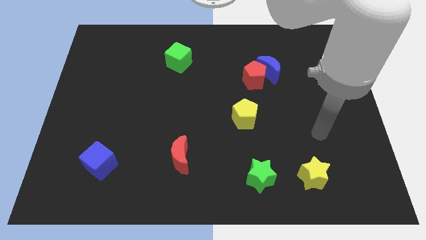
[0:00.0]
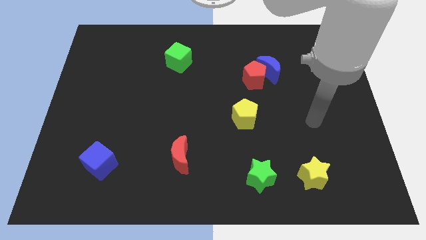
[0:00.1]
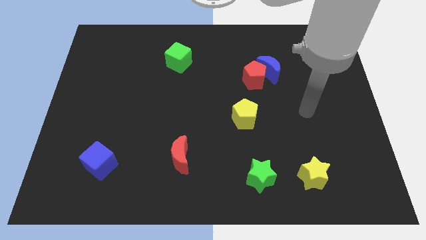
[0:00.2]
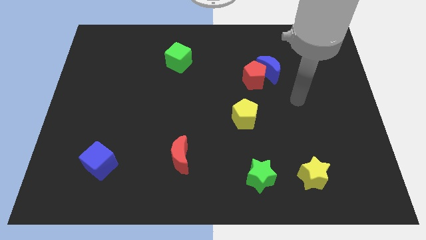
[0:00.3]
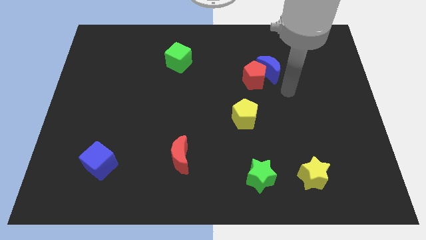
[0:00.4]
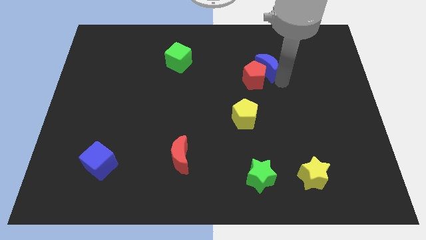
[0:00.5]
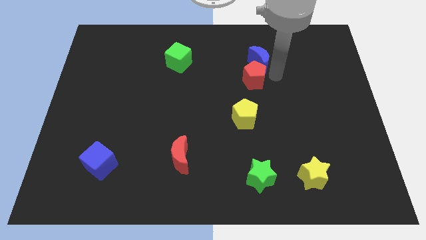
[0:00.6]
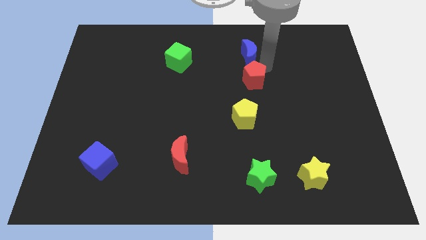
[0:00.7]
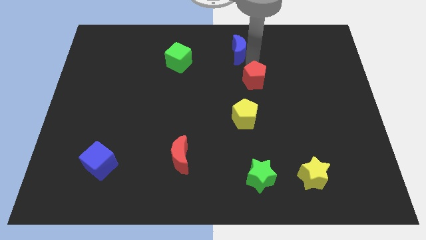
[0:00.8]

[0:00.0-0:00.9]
move the red pentagon away from the blue moon

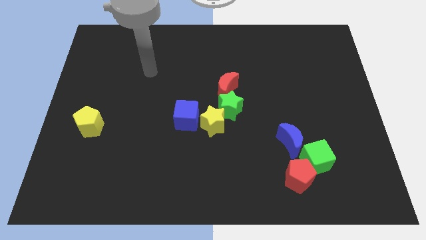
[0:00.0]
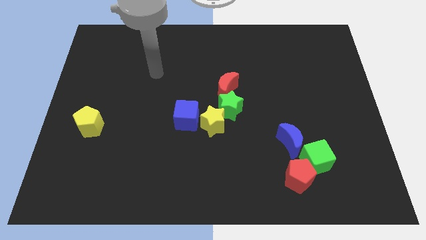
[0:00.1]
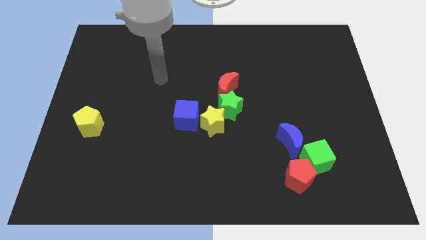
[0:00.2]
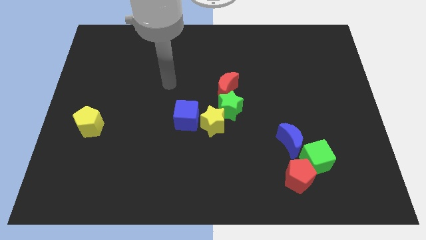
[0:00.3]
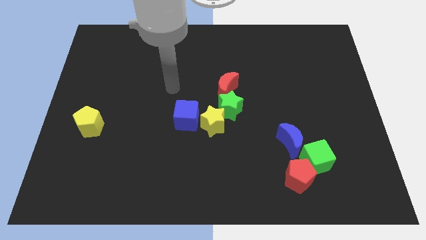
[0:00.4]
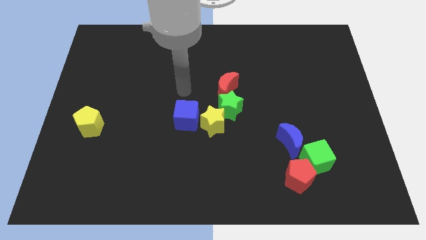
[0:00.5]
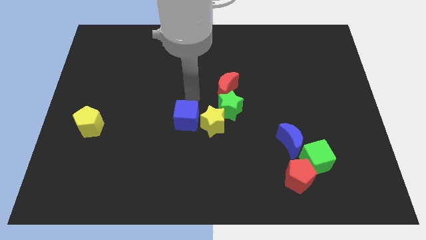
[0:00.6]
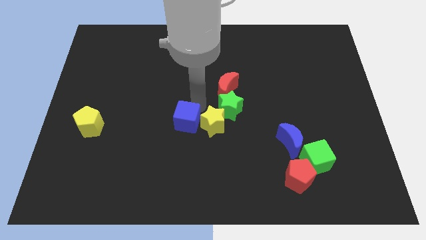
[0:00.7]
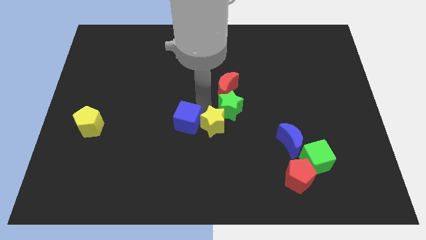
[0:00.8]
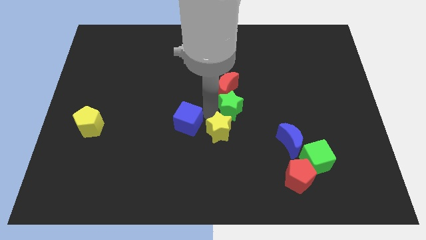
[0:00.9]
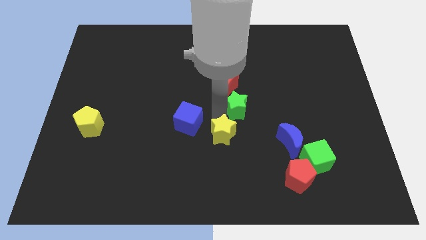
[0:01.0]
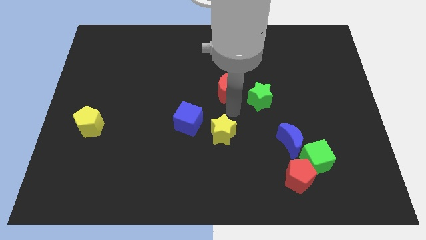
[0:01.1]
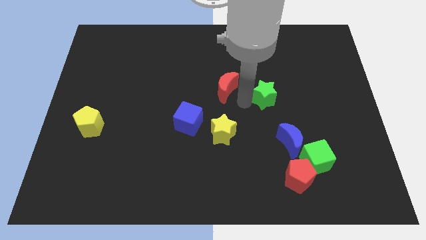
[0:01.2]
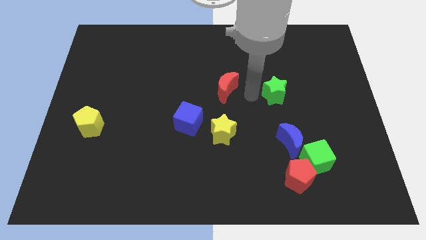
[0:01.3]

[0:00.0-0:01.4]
pull the red moon apart from the green star

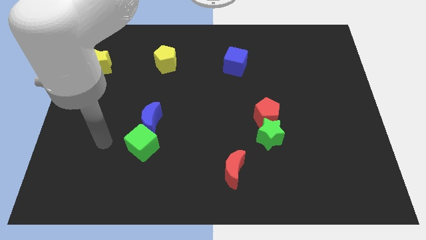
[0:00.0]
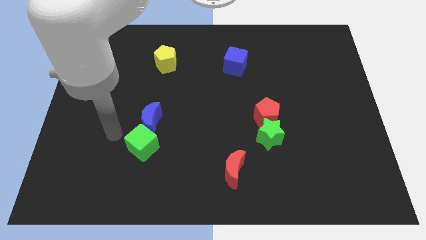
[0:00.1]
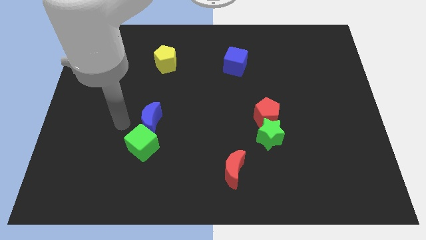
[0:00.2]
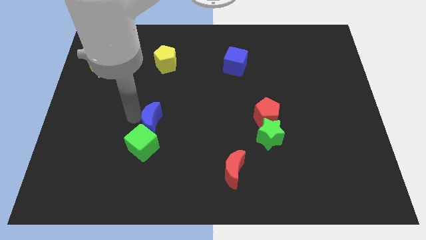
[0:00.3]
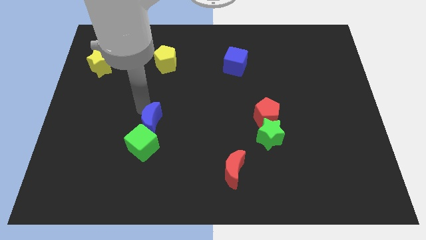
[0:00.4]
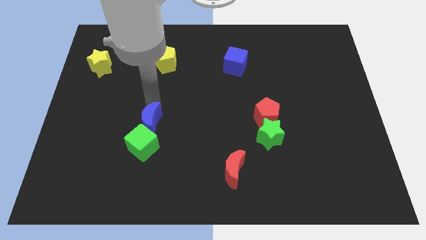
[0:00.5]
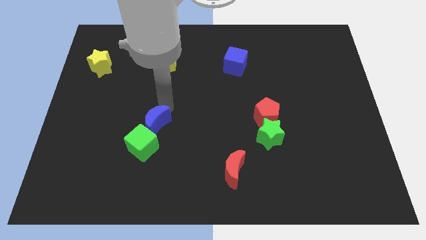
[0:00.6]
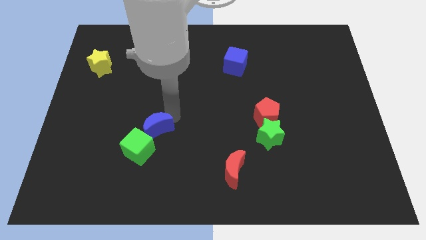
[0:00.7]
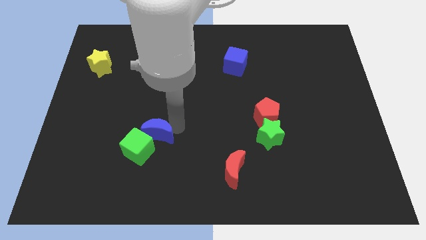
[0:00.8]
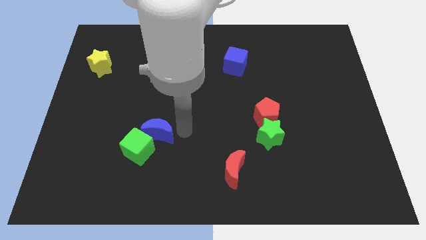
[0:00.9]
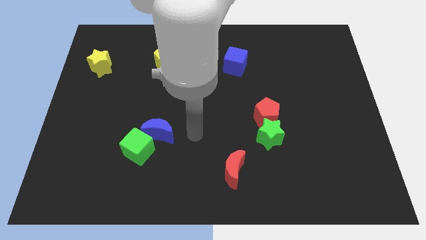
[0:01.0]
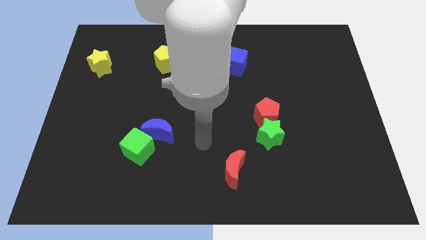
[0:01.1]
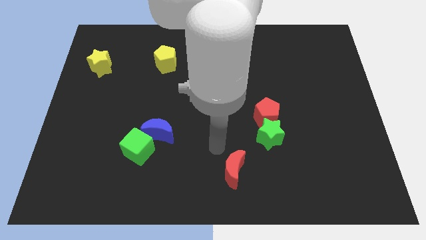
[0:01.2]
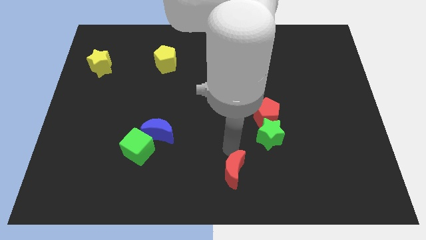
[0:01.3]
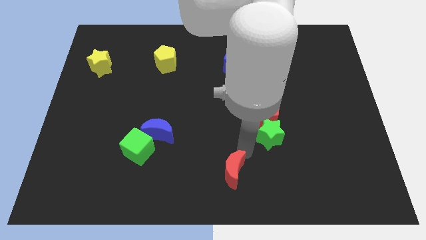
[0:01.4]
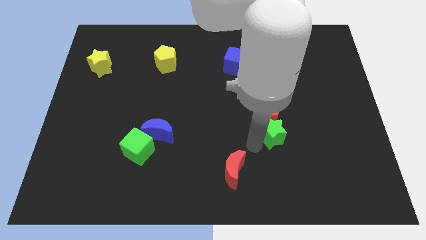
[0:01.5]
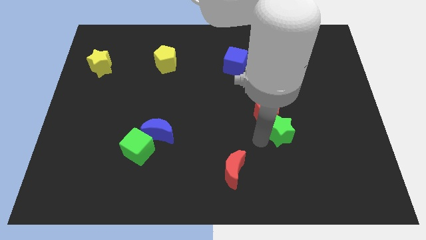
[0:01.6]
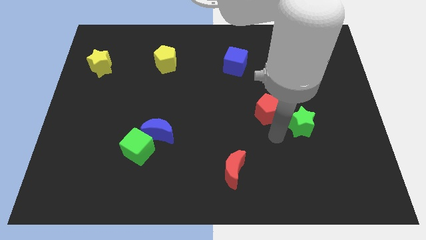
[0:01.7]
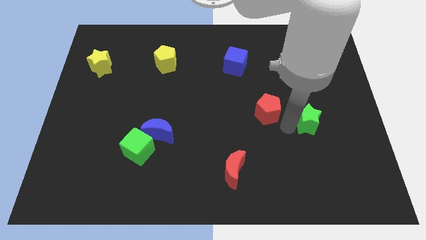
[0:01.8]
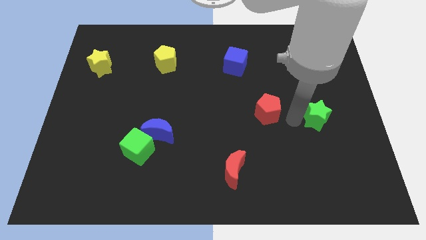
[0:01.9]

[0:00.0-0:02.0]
pull the red pentagon apart from the green star

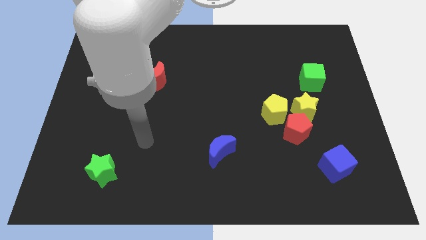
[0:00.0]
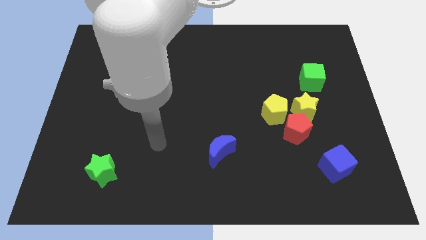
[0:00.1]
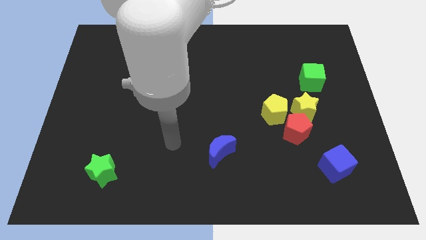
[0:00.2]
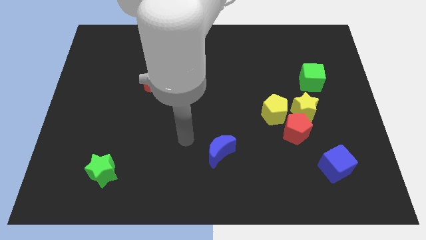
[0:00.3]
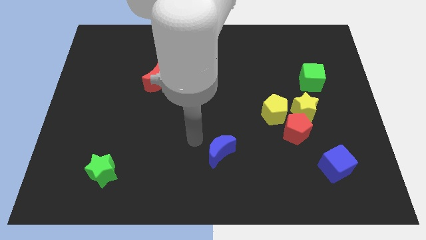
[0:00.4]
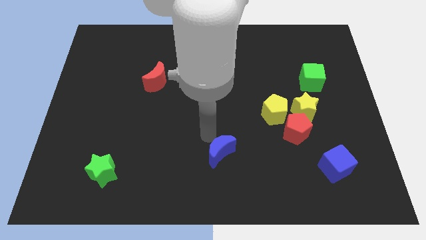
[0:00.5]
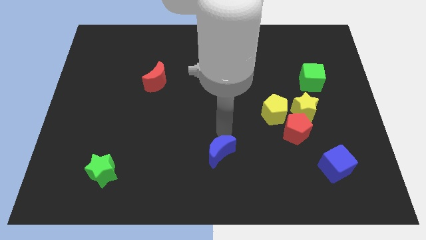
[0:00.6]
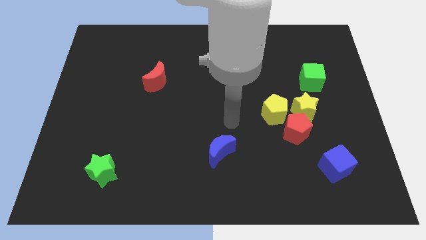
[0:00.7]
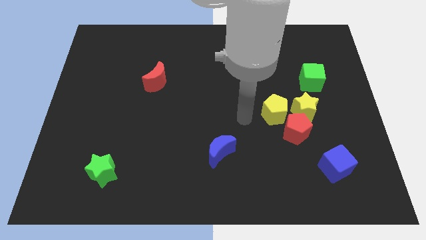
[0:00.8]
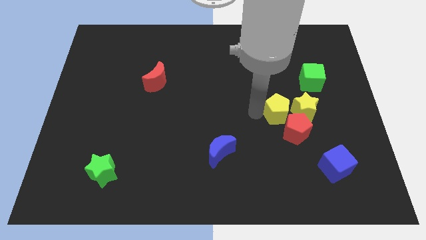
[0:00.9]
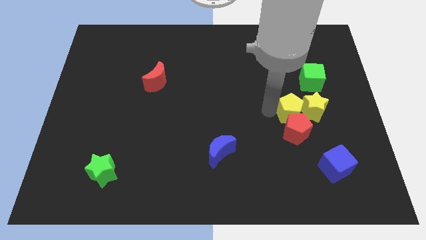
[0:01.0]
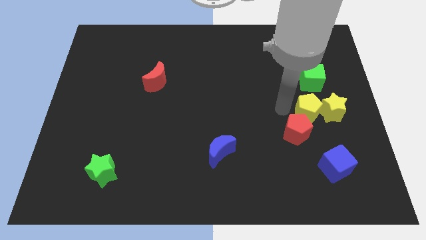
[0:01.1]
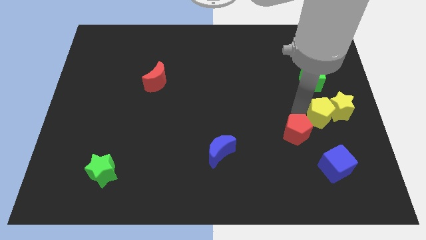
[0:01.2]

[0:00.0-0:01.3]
pull the red pentagon apart from the yellow star and yellow pentagon

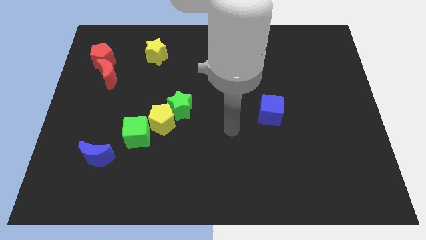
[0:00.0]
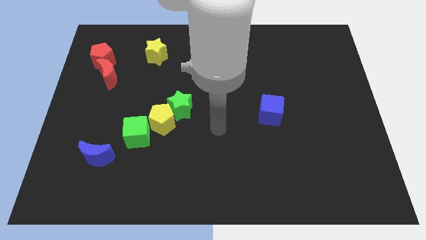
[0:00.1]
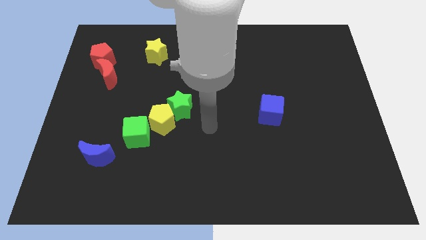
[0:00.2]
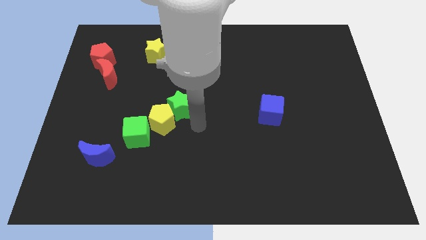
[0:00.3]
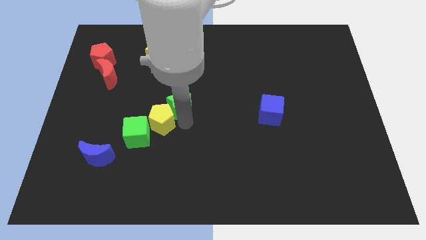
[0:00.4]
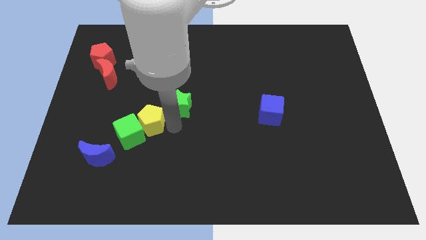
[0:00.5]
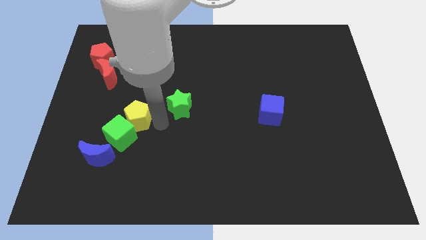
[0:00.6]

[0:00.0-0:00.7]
move the green star away from the yellow pentagon

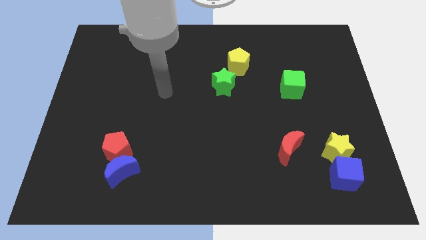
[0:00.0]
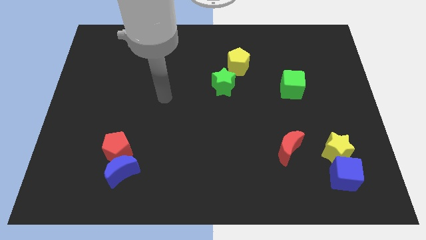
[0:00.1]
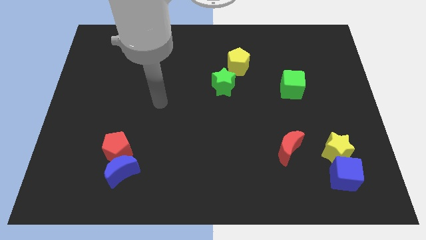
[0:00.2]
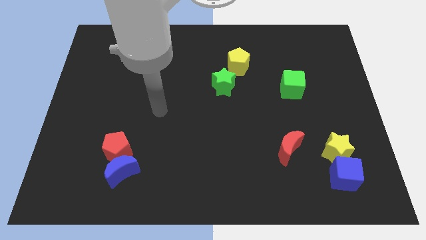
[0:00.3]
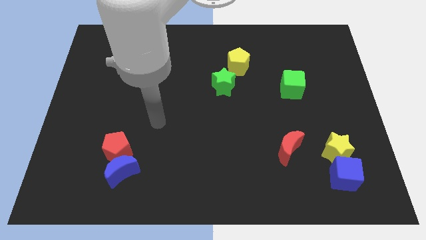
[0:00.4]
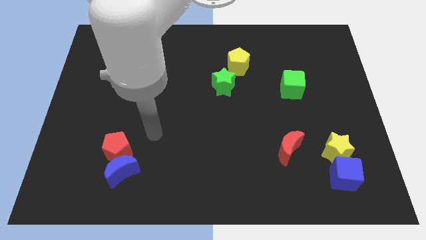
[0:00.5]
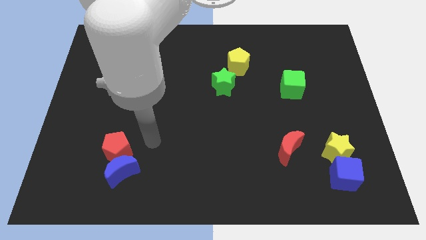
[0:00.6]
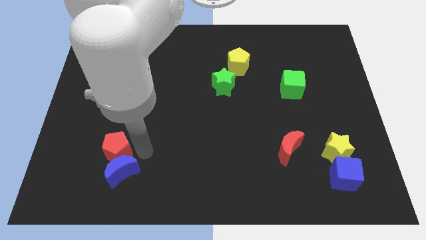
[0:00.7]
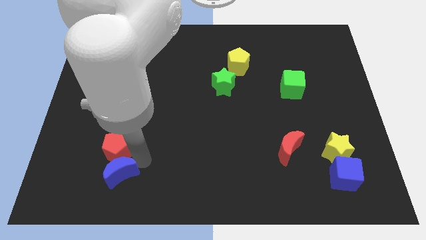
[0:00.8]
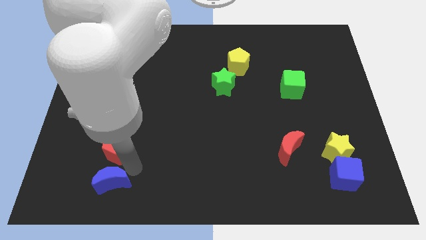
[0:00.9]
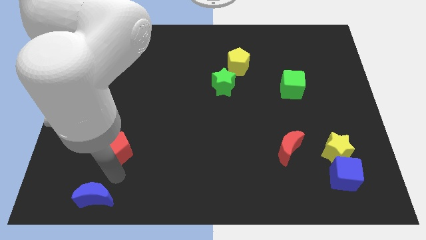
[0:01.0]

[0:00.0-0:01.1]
pull the red pentagon apart from the blue moon

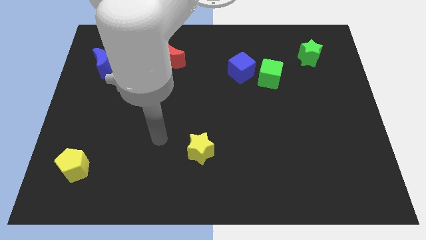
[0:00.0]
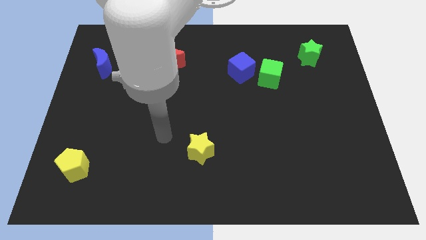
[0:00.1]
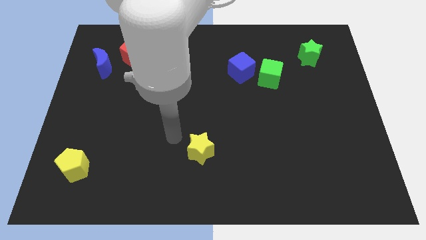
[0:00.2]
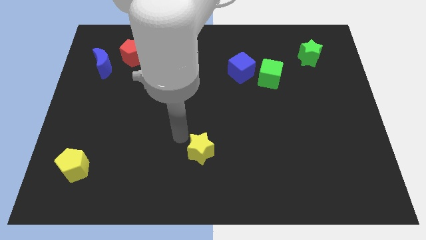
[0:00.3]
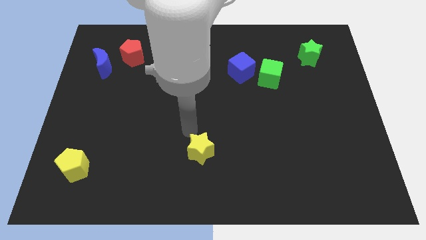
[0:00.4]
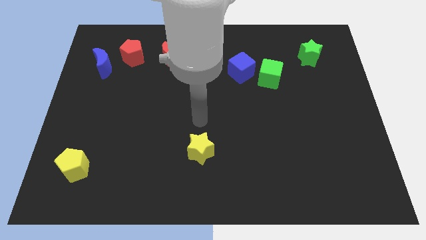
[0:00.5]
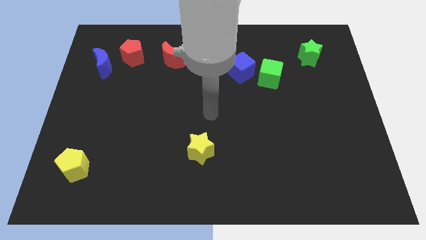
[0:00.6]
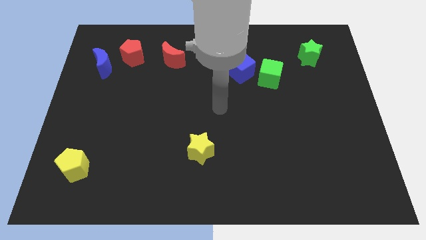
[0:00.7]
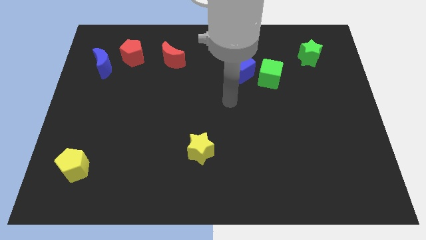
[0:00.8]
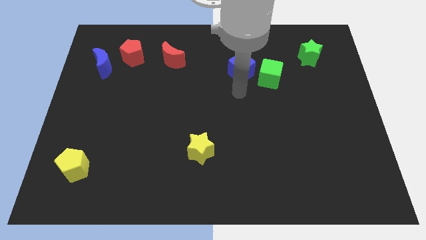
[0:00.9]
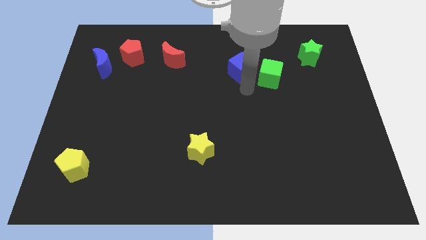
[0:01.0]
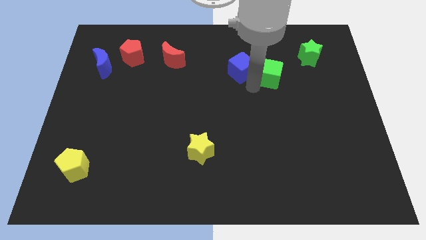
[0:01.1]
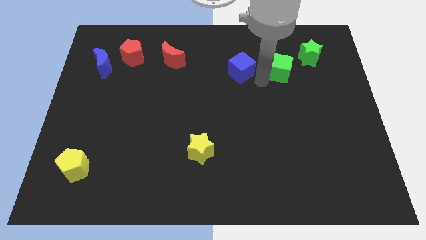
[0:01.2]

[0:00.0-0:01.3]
separate the blue cube from the green cube

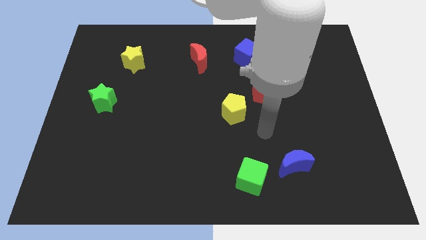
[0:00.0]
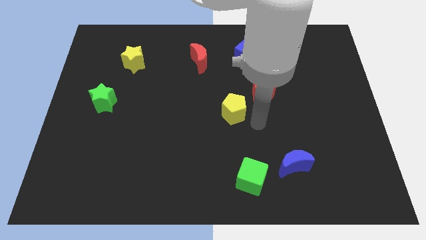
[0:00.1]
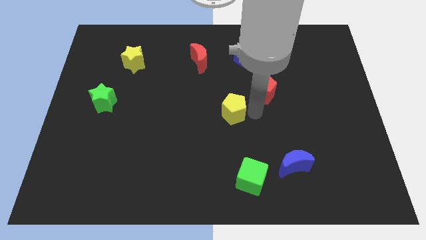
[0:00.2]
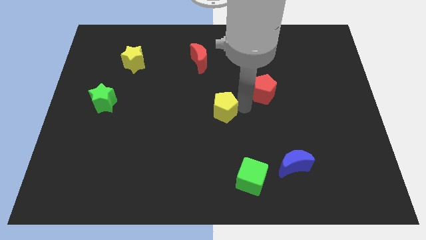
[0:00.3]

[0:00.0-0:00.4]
pull the red pentagon apart from the yellow pentagon

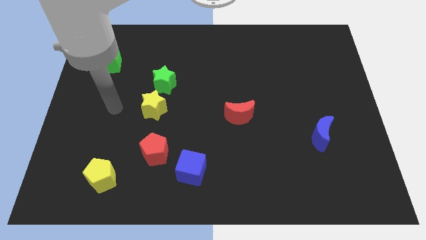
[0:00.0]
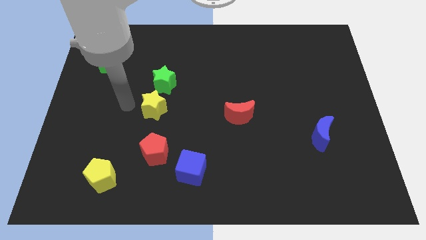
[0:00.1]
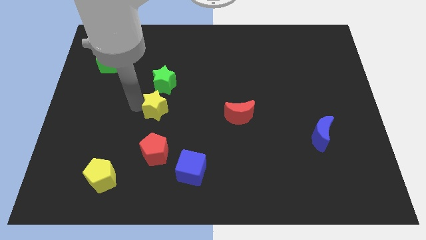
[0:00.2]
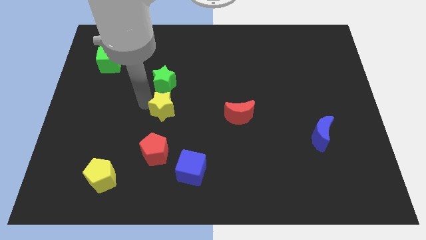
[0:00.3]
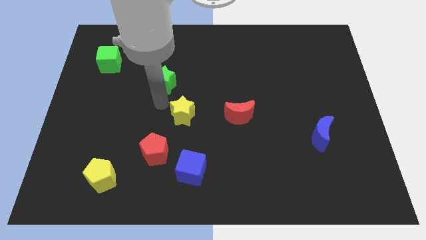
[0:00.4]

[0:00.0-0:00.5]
move the green star away from the yellow star
